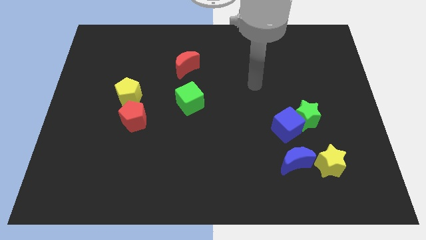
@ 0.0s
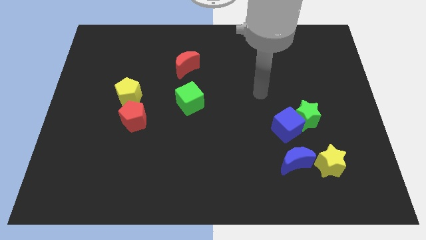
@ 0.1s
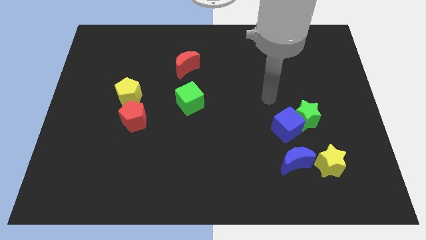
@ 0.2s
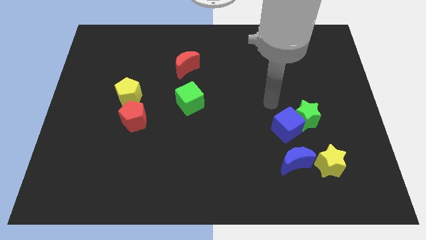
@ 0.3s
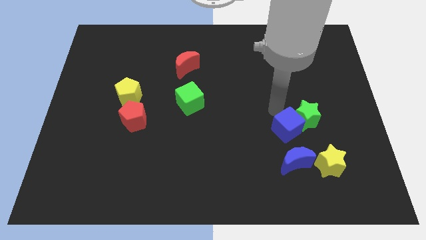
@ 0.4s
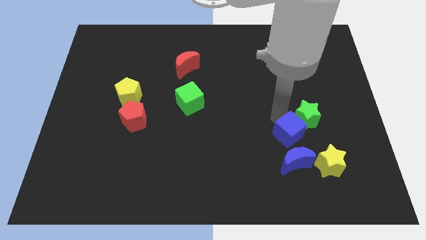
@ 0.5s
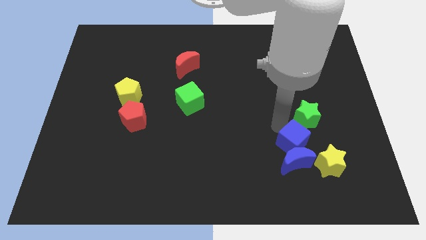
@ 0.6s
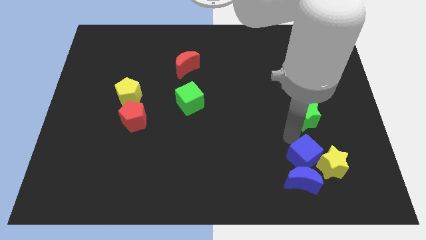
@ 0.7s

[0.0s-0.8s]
separate the green star from the blue cube

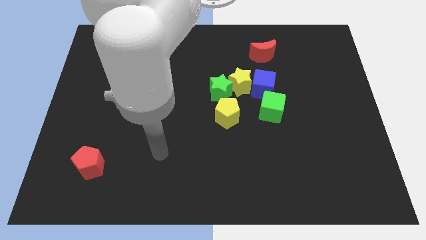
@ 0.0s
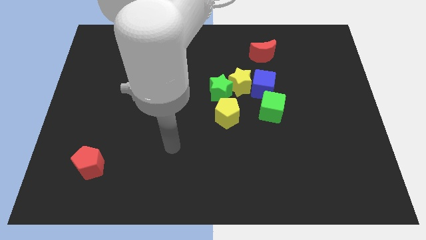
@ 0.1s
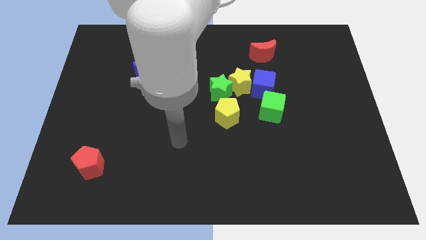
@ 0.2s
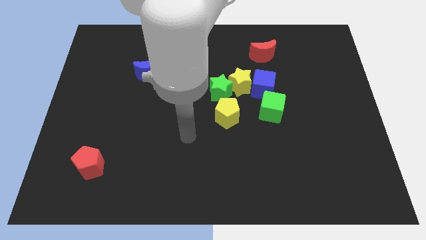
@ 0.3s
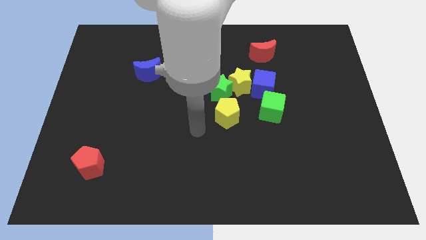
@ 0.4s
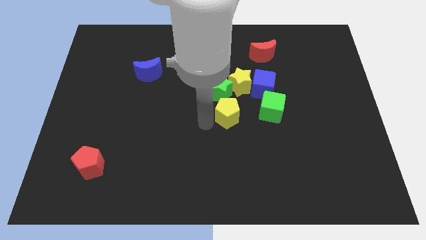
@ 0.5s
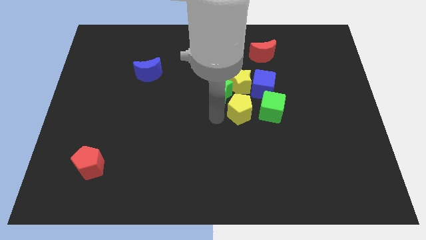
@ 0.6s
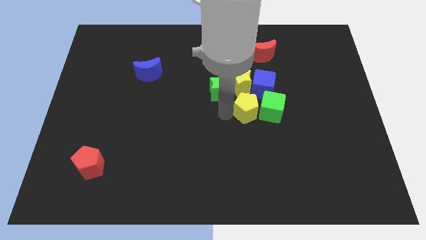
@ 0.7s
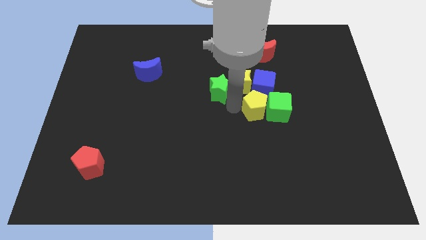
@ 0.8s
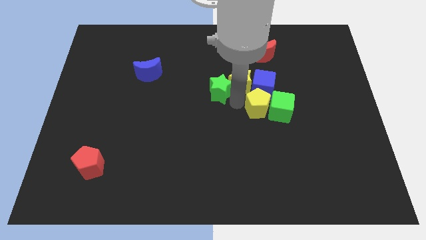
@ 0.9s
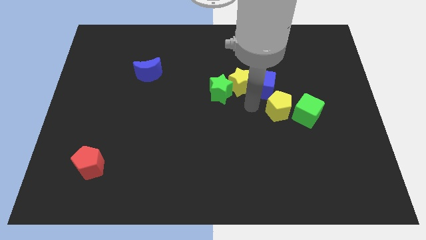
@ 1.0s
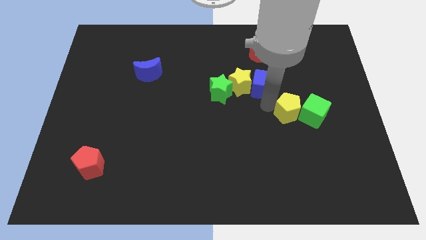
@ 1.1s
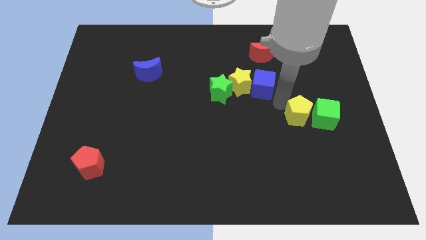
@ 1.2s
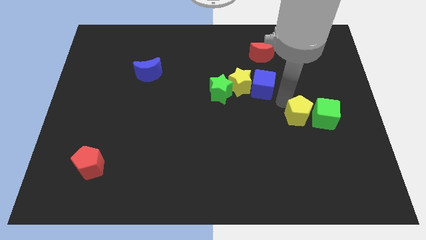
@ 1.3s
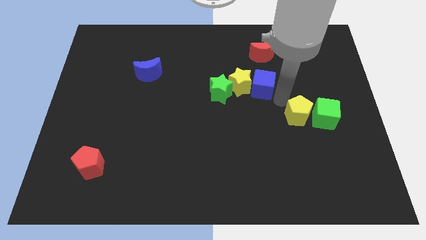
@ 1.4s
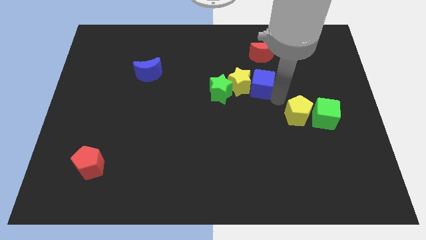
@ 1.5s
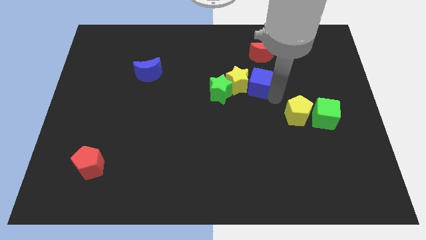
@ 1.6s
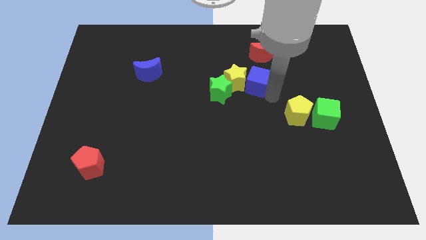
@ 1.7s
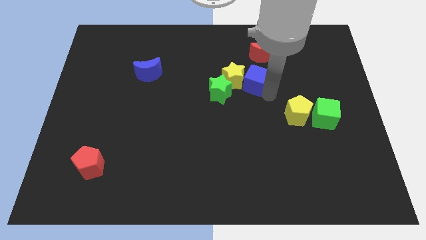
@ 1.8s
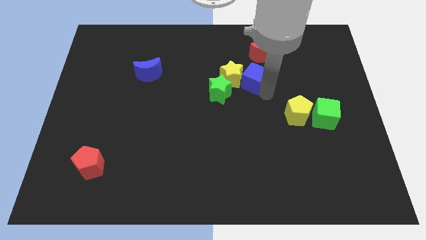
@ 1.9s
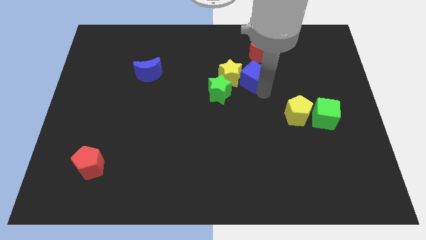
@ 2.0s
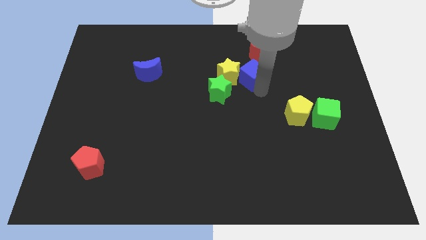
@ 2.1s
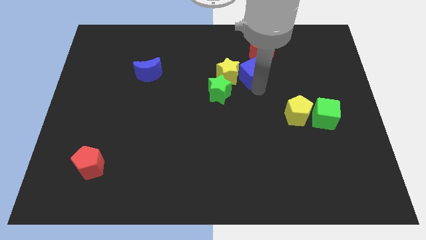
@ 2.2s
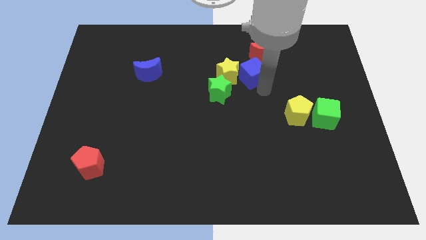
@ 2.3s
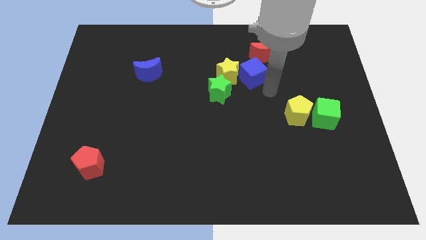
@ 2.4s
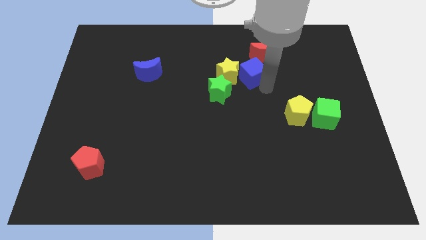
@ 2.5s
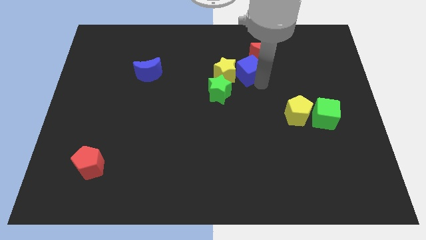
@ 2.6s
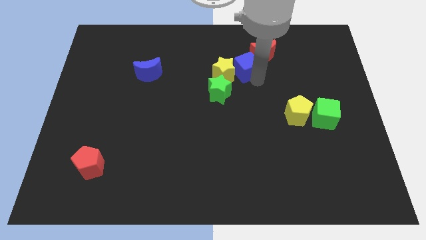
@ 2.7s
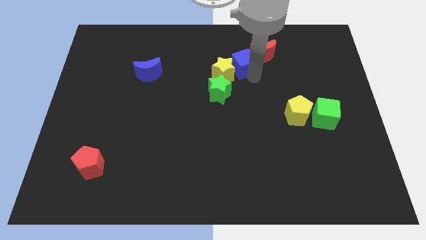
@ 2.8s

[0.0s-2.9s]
move the blue cube away from the yellow star and green cube

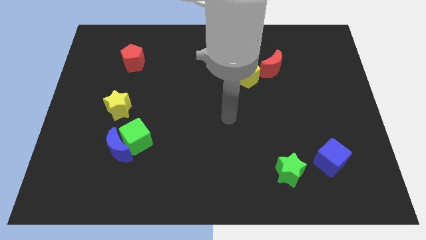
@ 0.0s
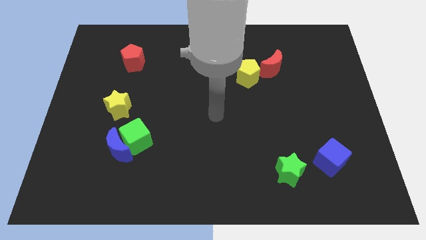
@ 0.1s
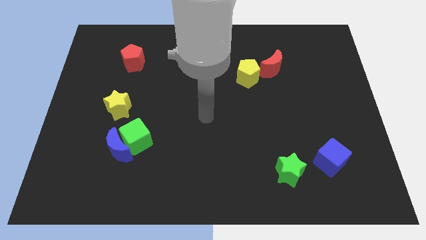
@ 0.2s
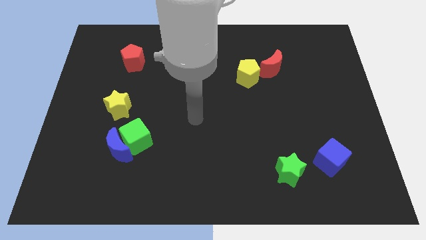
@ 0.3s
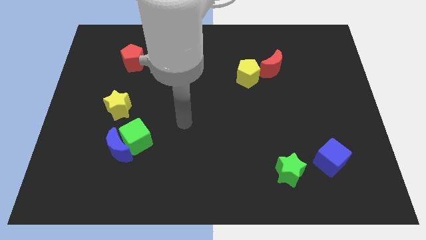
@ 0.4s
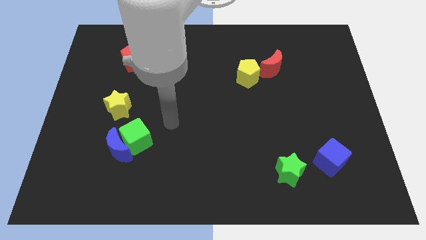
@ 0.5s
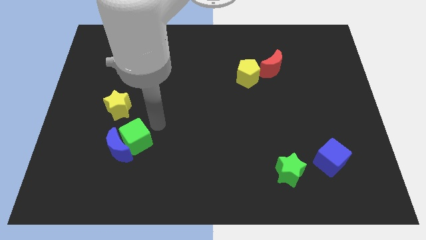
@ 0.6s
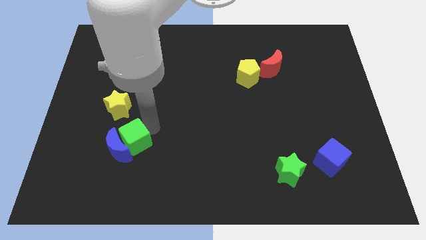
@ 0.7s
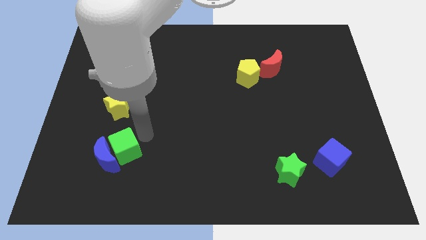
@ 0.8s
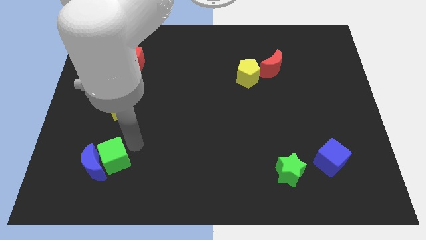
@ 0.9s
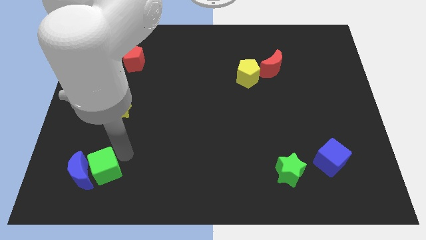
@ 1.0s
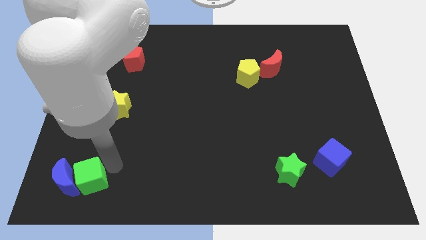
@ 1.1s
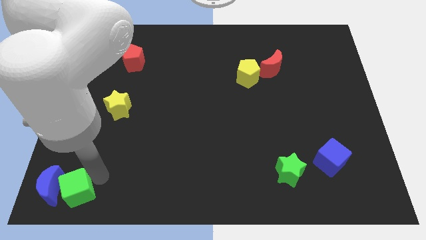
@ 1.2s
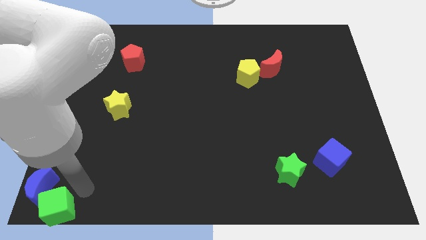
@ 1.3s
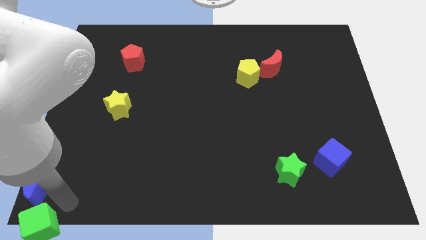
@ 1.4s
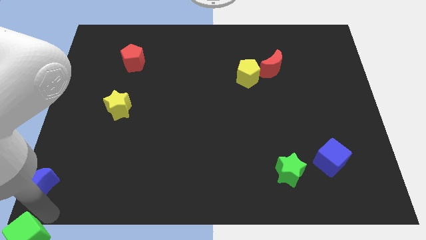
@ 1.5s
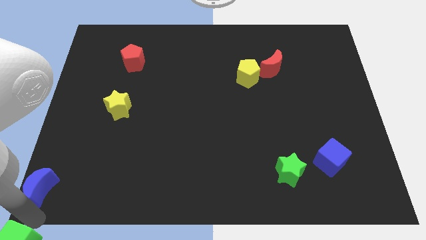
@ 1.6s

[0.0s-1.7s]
move the blue moon away from the green cube

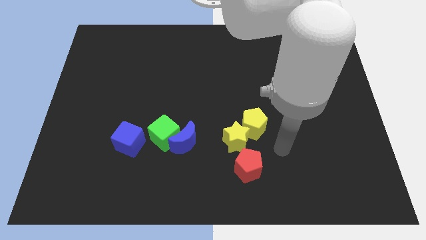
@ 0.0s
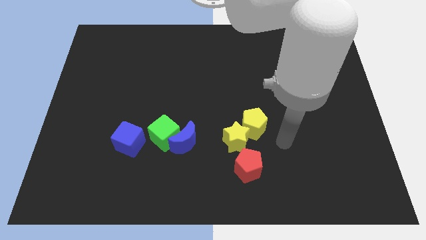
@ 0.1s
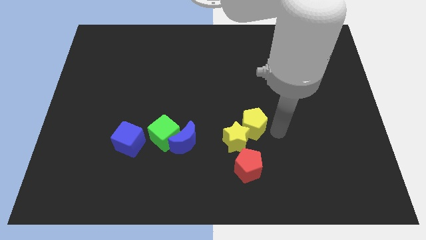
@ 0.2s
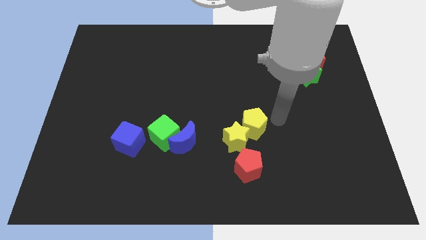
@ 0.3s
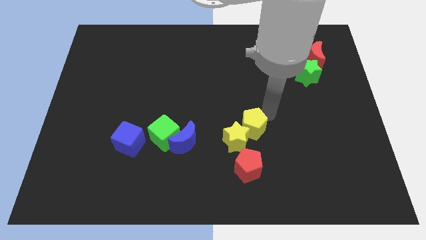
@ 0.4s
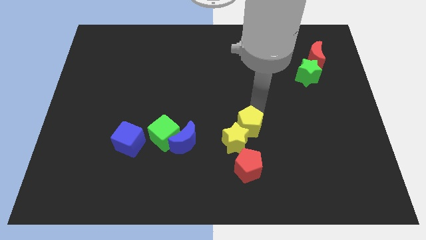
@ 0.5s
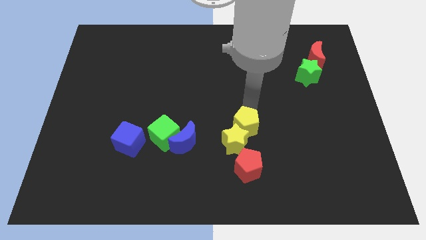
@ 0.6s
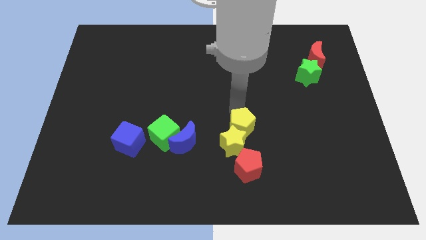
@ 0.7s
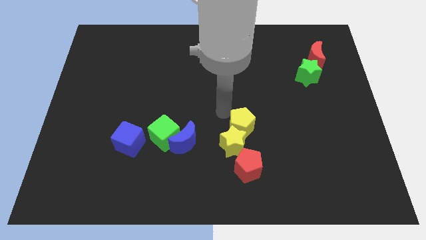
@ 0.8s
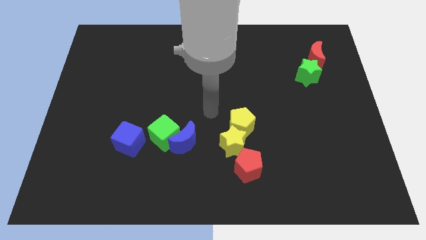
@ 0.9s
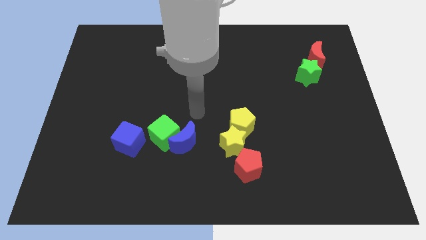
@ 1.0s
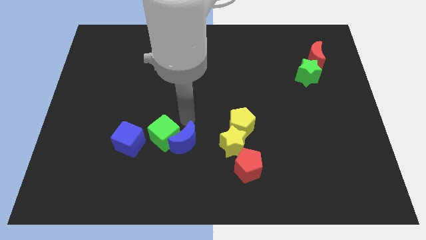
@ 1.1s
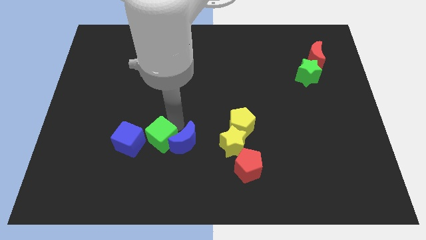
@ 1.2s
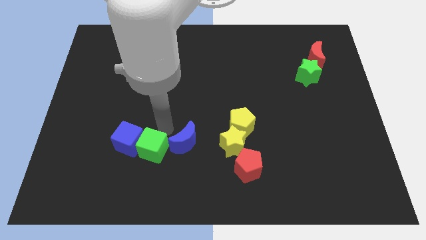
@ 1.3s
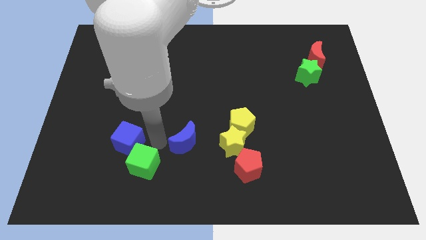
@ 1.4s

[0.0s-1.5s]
separate the blue moon from the green cube

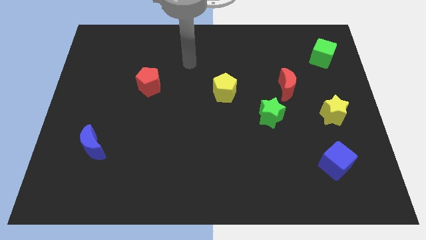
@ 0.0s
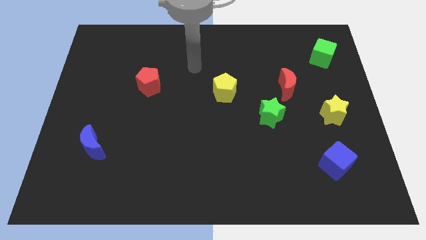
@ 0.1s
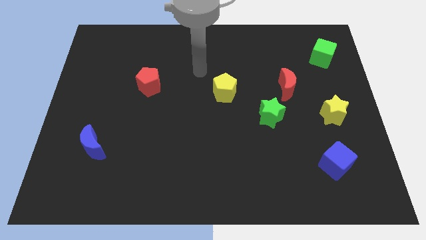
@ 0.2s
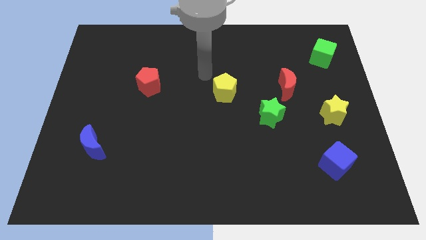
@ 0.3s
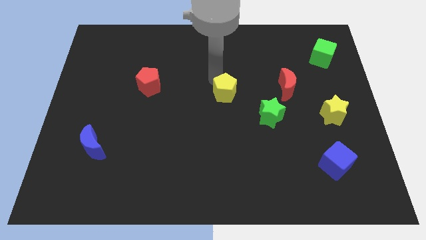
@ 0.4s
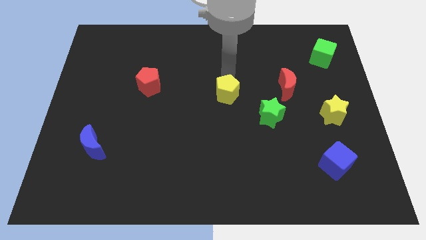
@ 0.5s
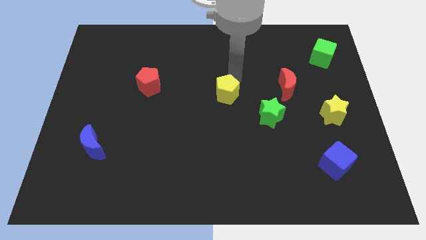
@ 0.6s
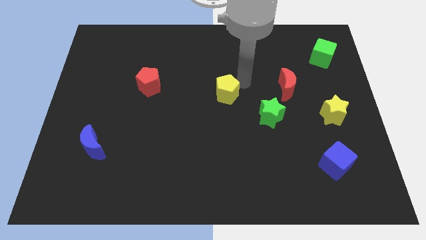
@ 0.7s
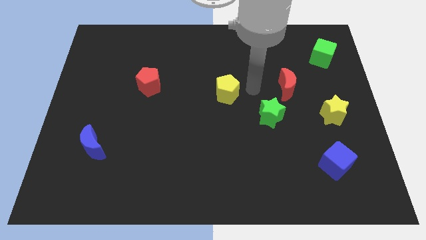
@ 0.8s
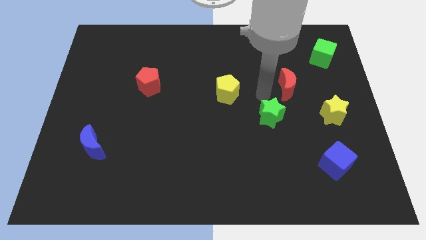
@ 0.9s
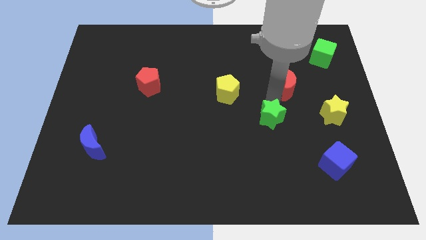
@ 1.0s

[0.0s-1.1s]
move the red moon away from the green star

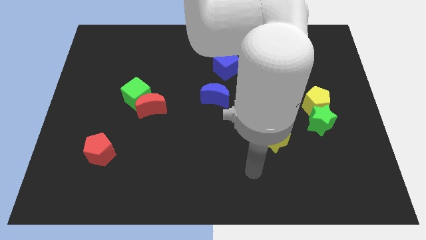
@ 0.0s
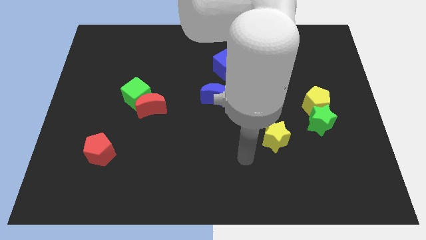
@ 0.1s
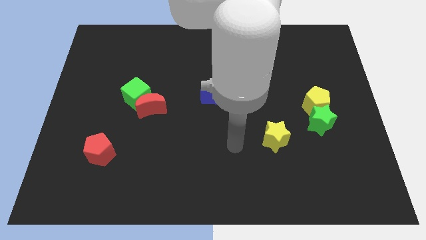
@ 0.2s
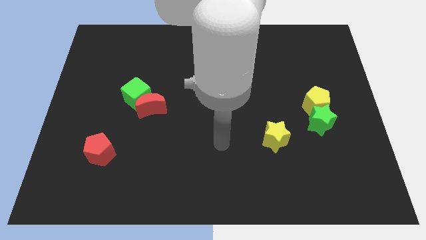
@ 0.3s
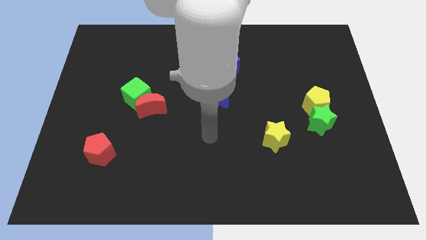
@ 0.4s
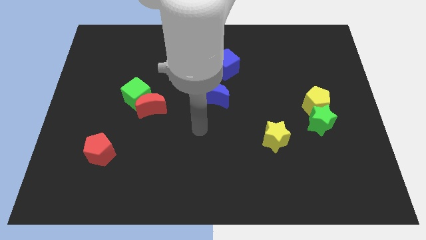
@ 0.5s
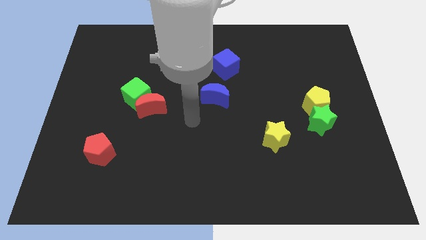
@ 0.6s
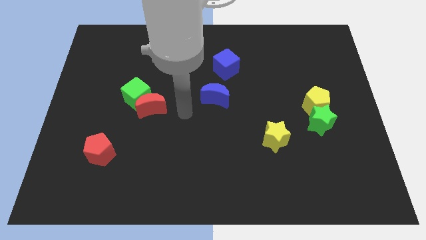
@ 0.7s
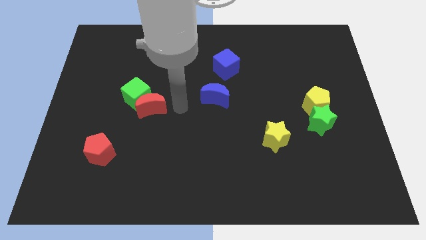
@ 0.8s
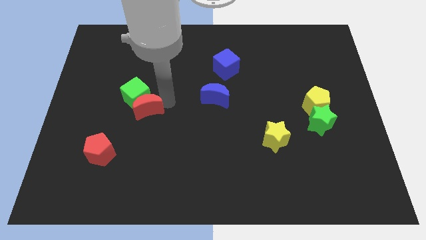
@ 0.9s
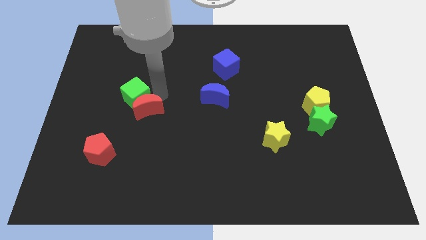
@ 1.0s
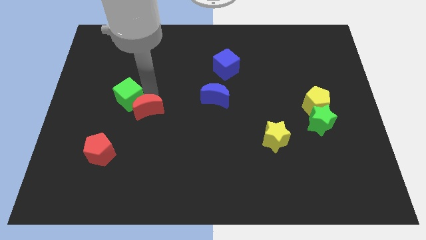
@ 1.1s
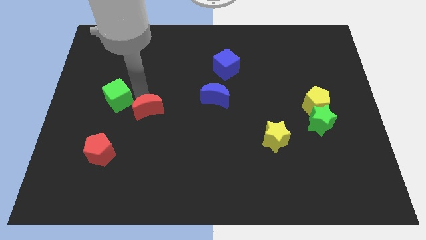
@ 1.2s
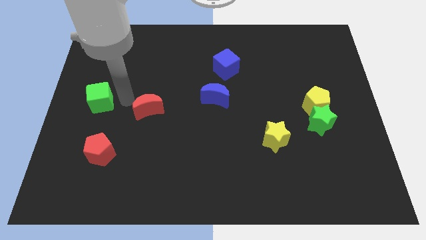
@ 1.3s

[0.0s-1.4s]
pull the red moon apart from the green cube
